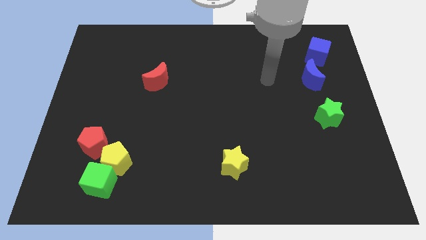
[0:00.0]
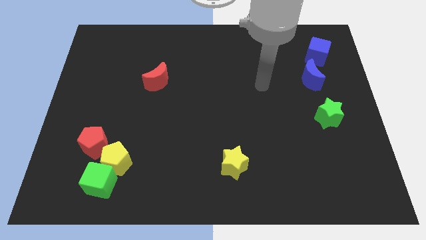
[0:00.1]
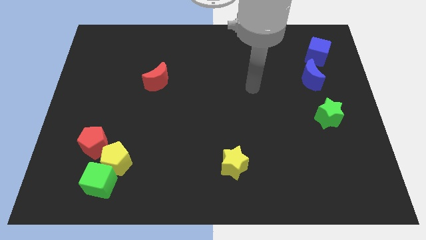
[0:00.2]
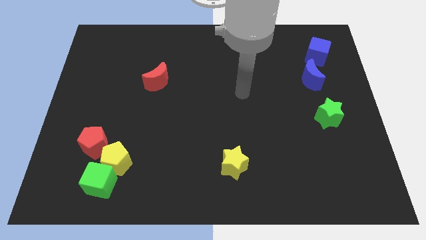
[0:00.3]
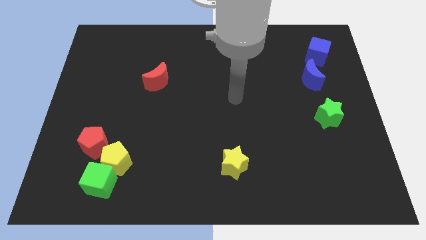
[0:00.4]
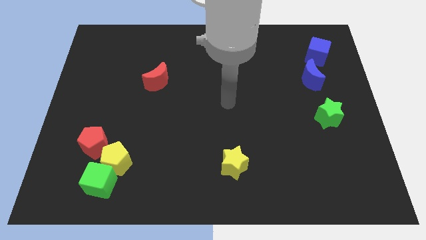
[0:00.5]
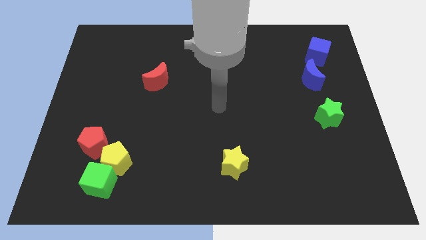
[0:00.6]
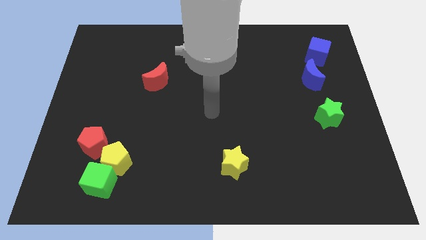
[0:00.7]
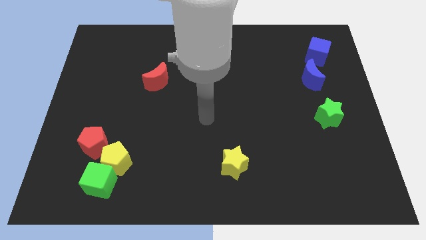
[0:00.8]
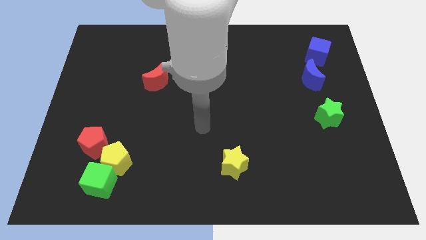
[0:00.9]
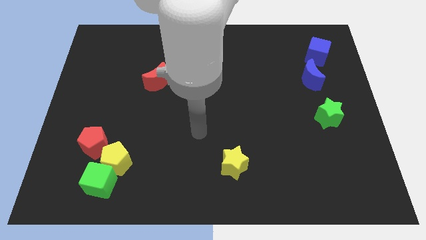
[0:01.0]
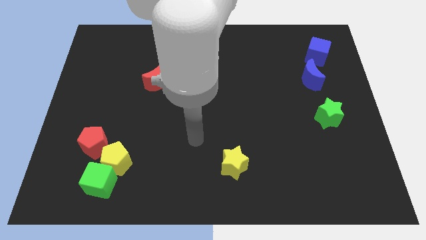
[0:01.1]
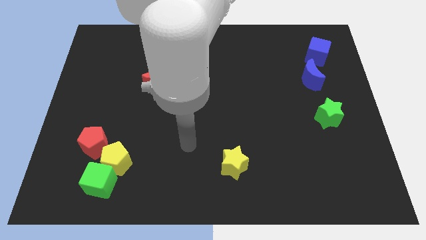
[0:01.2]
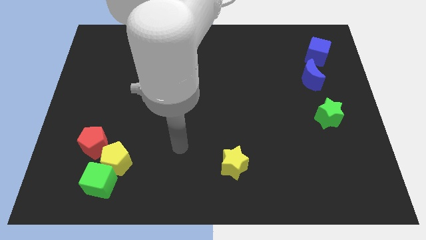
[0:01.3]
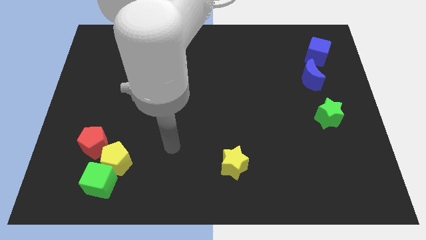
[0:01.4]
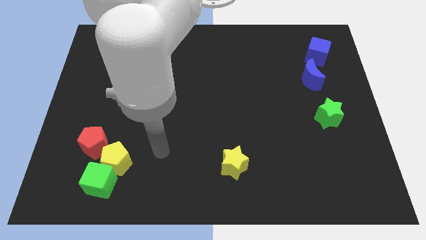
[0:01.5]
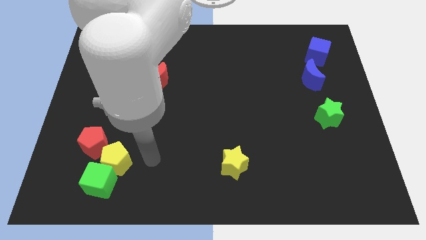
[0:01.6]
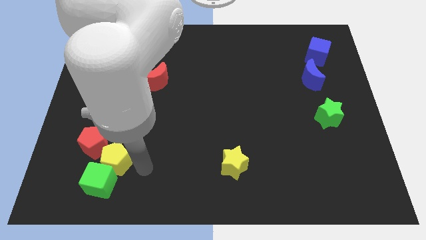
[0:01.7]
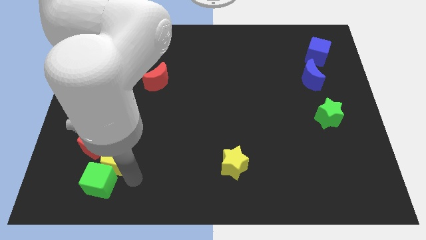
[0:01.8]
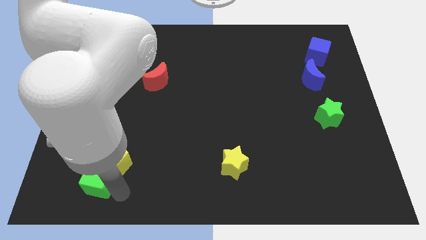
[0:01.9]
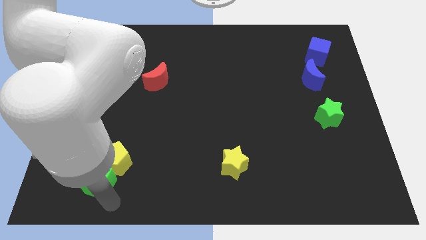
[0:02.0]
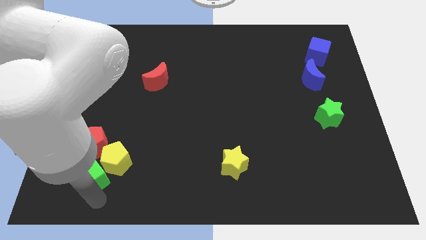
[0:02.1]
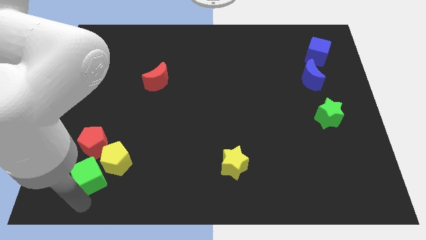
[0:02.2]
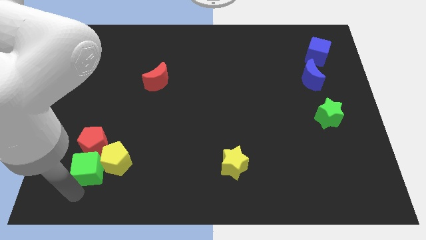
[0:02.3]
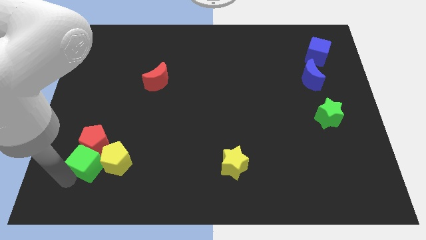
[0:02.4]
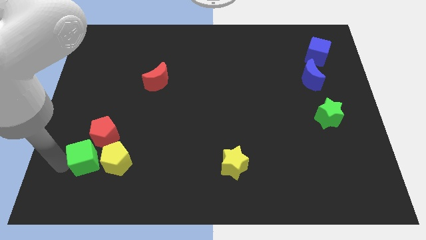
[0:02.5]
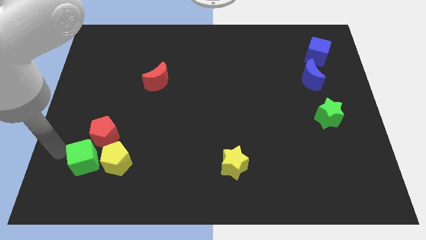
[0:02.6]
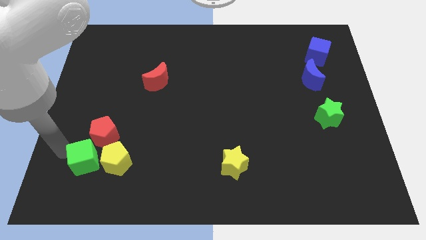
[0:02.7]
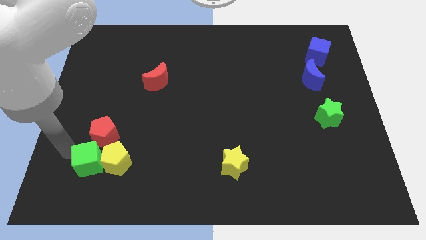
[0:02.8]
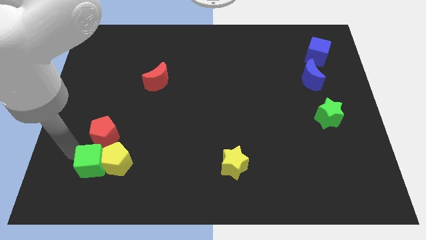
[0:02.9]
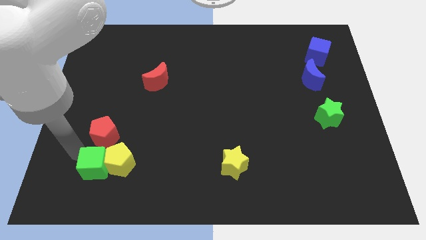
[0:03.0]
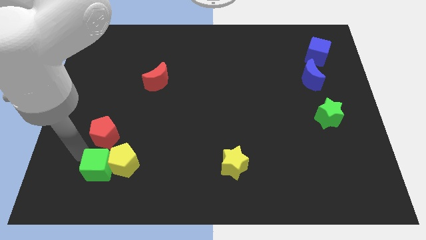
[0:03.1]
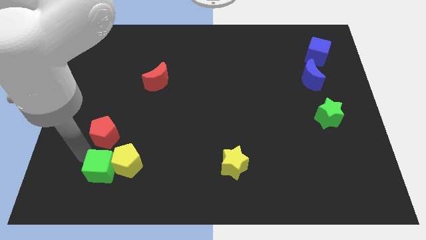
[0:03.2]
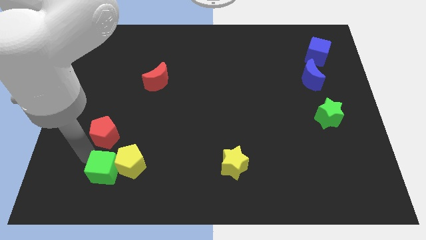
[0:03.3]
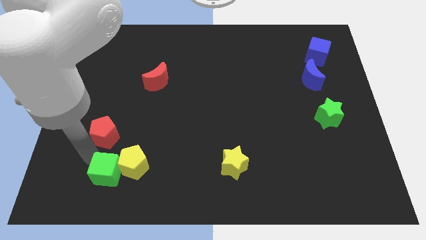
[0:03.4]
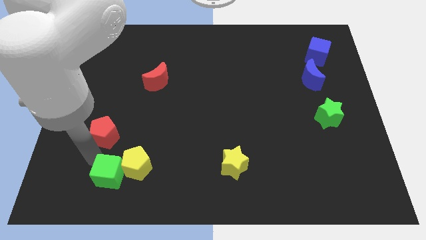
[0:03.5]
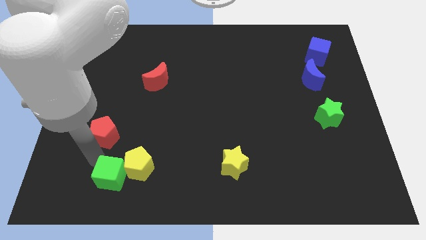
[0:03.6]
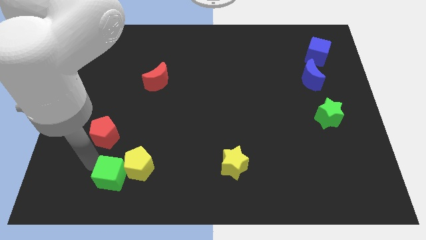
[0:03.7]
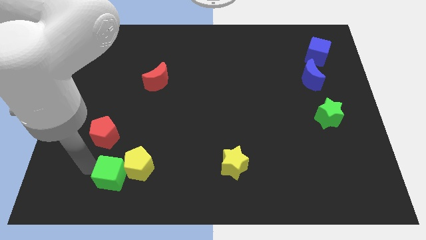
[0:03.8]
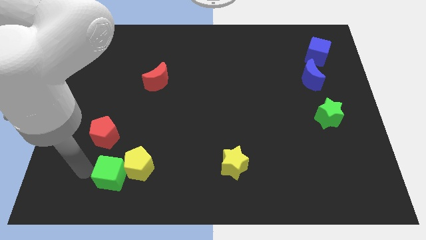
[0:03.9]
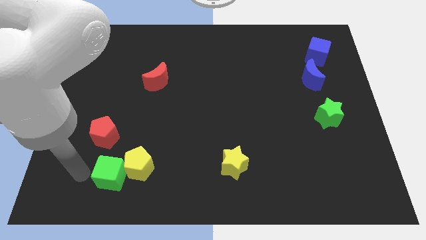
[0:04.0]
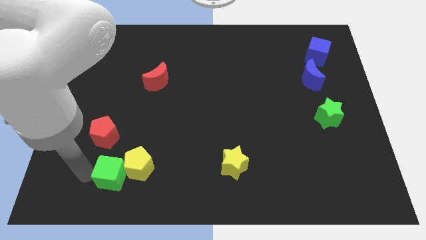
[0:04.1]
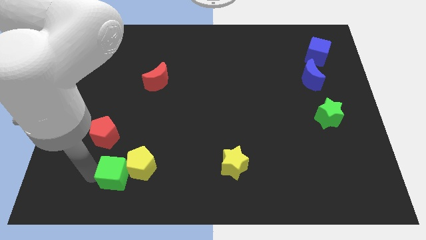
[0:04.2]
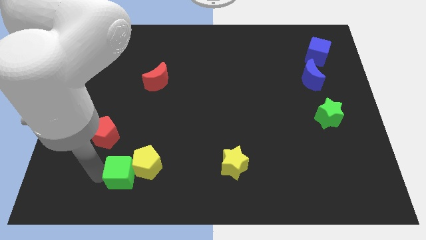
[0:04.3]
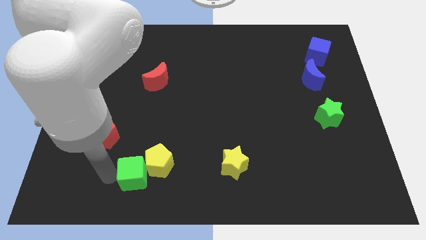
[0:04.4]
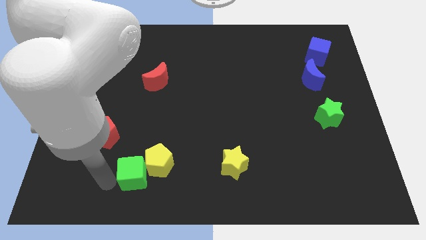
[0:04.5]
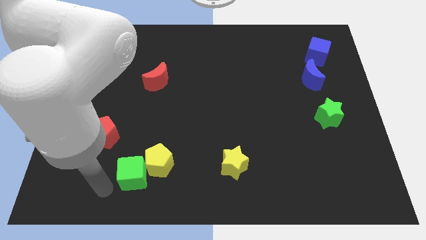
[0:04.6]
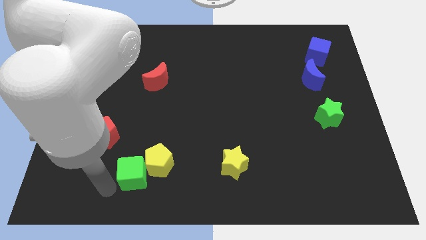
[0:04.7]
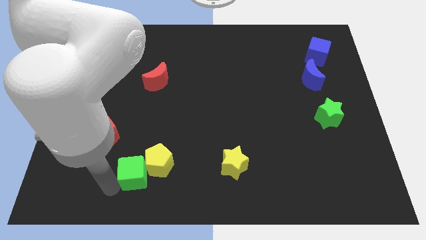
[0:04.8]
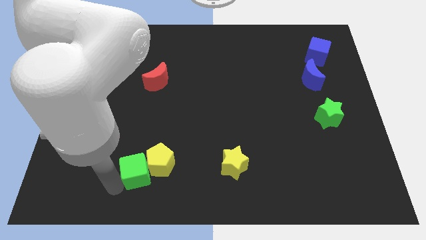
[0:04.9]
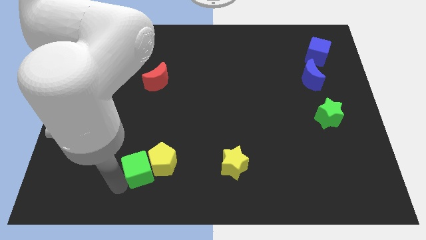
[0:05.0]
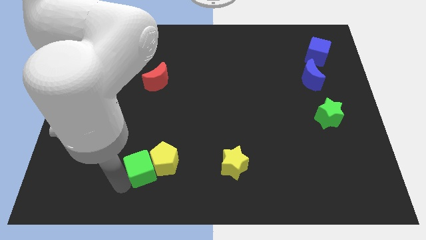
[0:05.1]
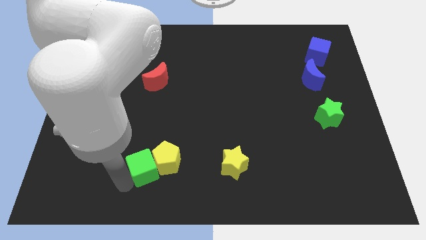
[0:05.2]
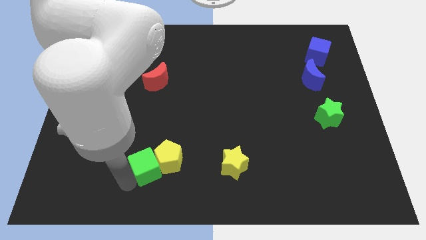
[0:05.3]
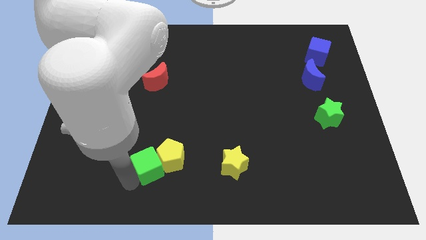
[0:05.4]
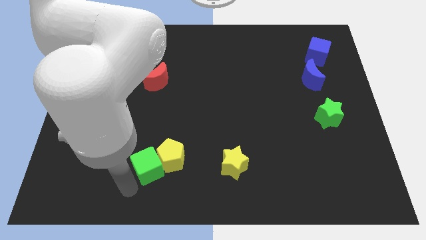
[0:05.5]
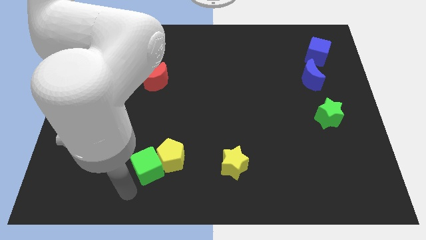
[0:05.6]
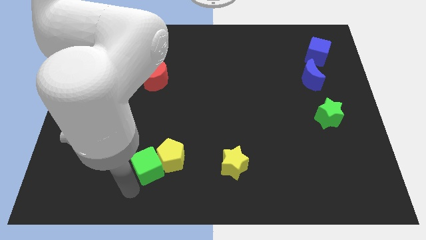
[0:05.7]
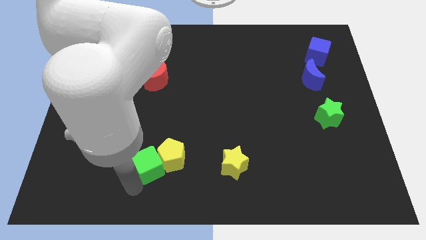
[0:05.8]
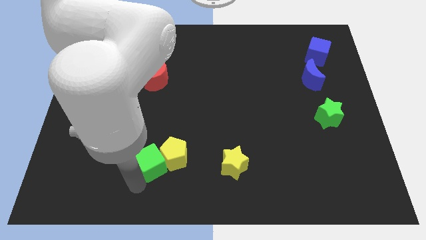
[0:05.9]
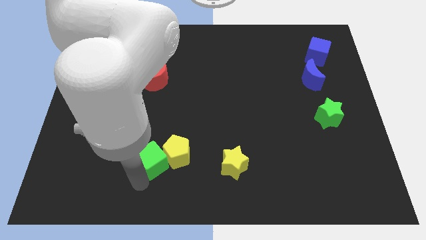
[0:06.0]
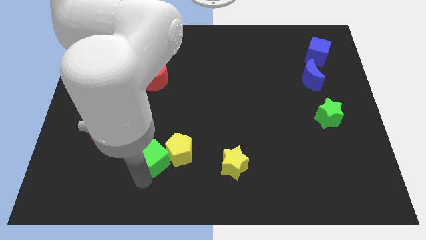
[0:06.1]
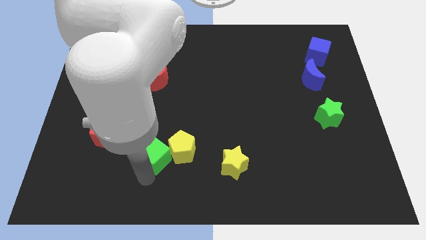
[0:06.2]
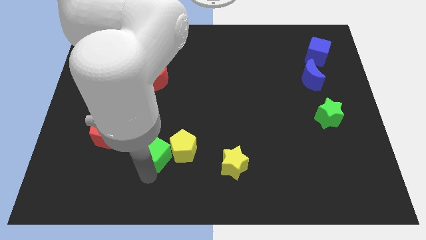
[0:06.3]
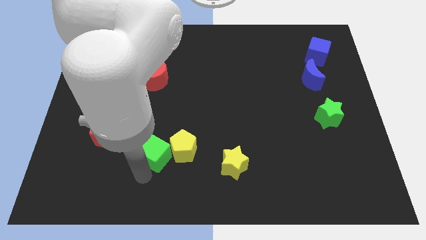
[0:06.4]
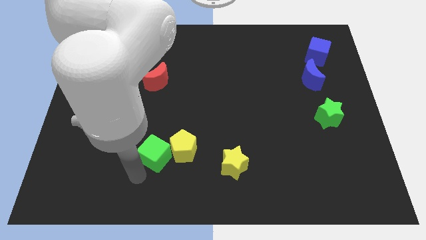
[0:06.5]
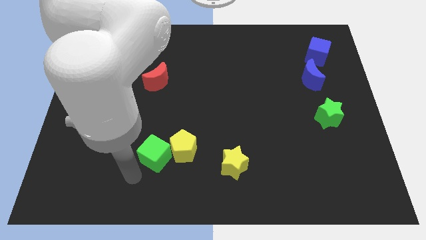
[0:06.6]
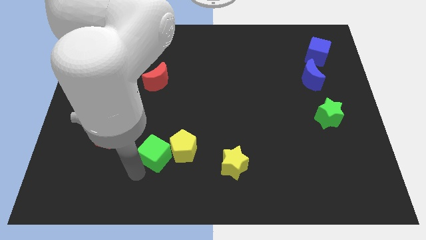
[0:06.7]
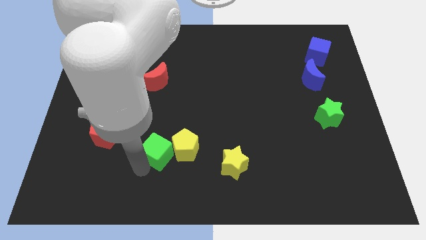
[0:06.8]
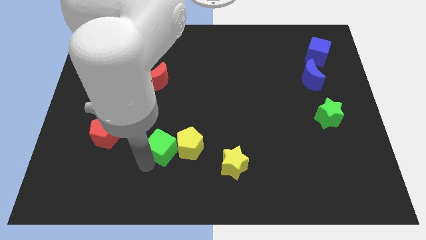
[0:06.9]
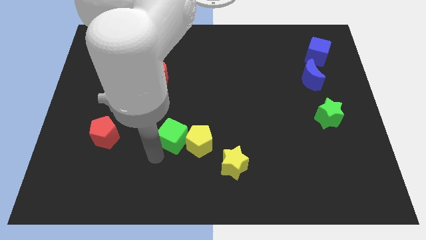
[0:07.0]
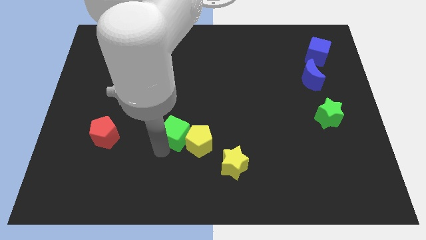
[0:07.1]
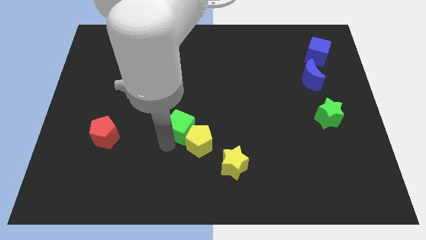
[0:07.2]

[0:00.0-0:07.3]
put the green cube to the center
